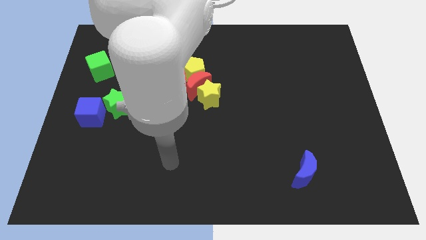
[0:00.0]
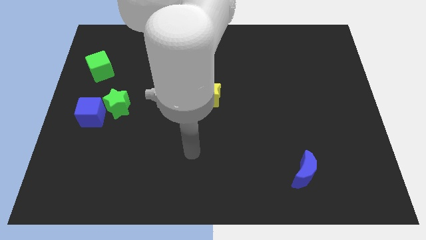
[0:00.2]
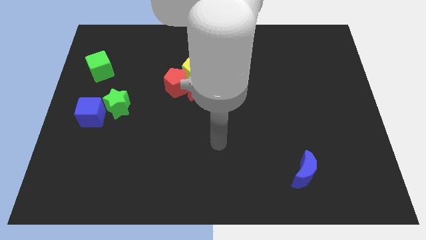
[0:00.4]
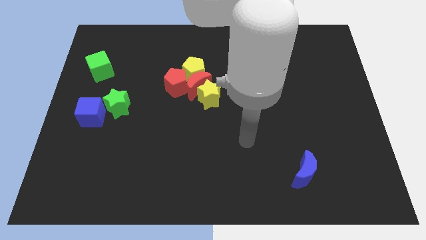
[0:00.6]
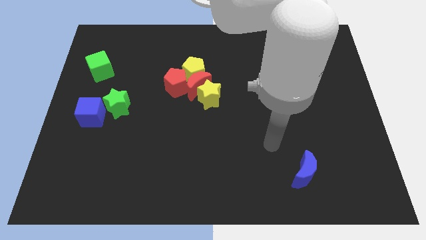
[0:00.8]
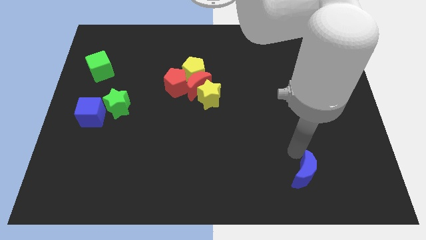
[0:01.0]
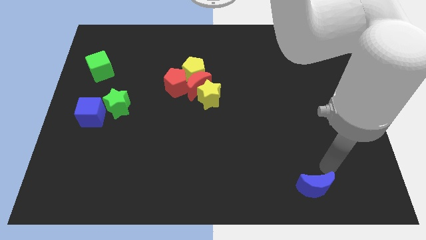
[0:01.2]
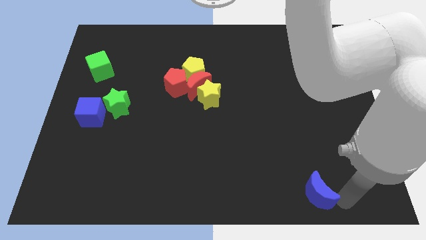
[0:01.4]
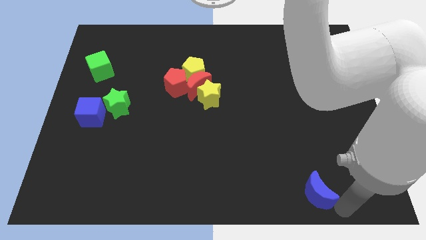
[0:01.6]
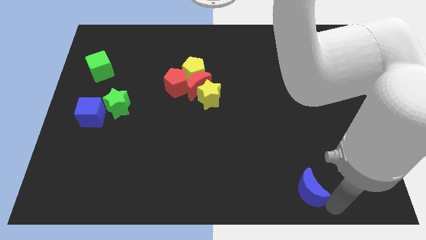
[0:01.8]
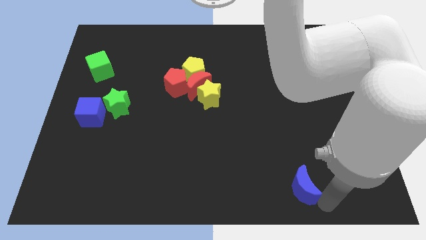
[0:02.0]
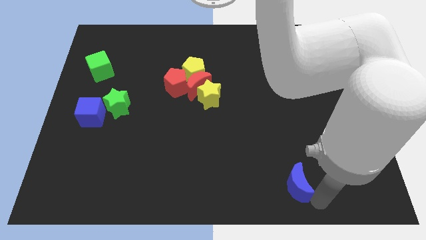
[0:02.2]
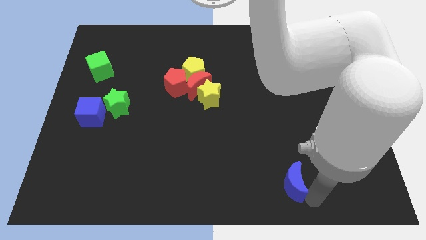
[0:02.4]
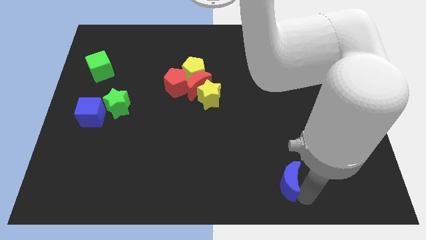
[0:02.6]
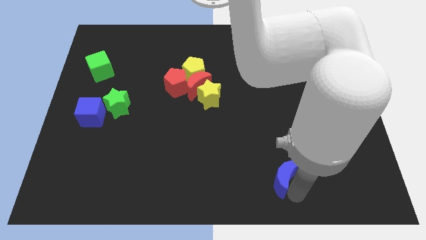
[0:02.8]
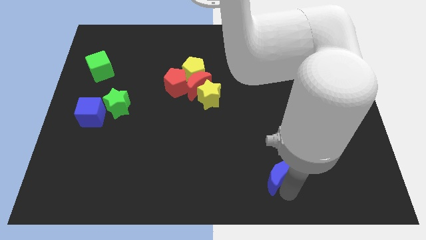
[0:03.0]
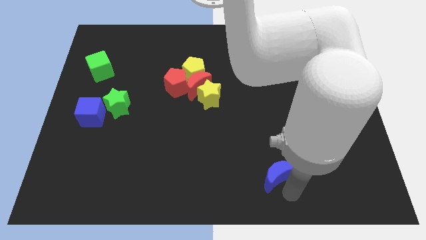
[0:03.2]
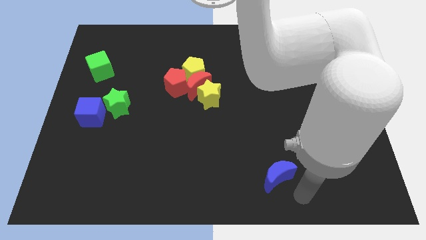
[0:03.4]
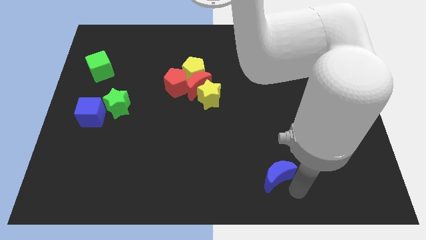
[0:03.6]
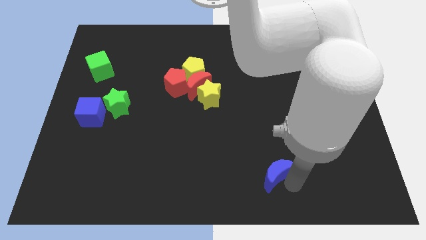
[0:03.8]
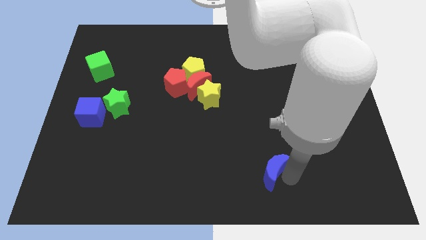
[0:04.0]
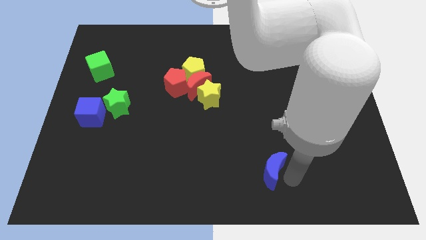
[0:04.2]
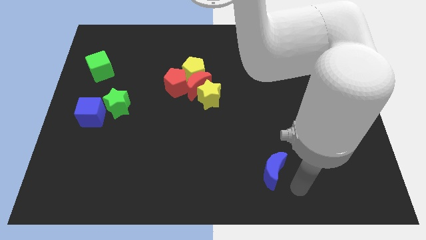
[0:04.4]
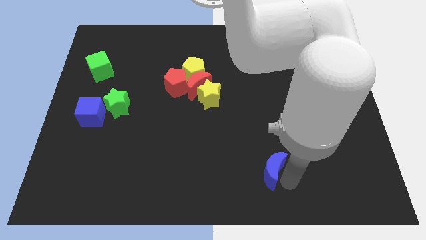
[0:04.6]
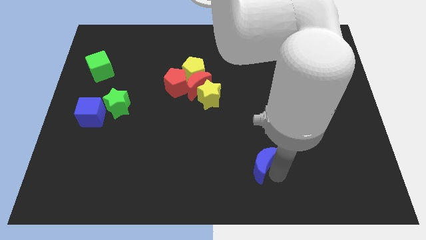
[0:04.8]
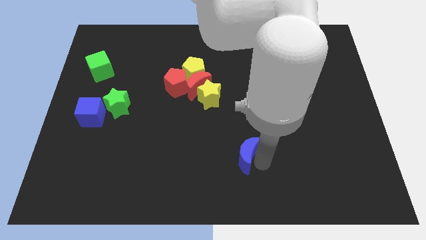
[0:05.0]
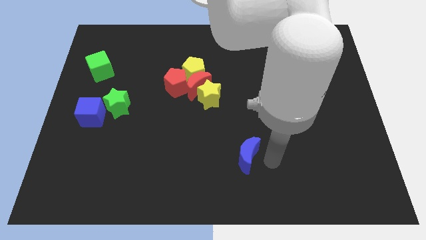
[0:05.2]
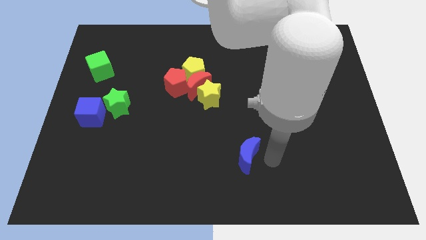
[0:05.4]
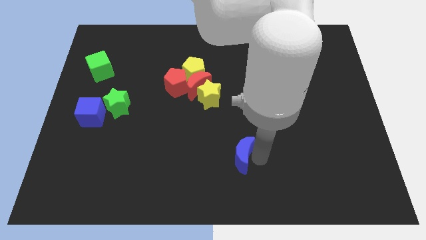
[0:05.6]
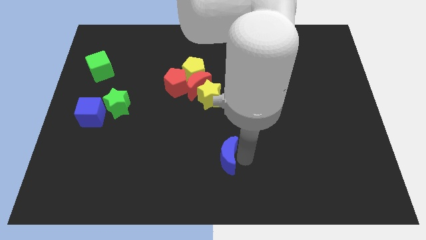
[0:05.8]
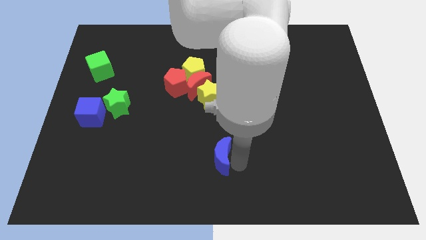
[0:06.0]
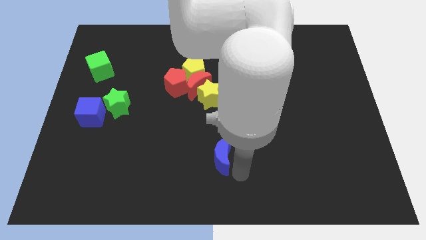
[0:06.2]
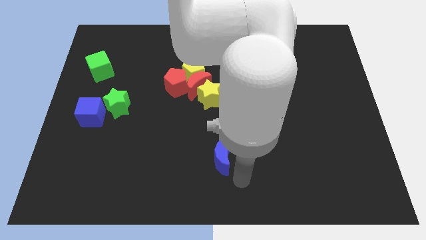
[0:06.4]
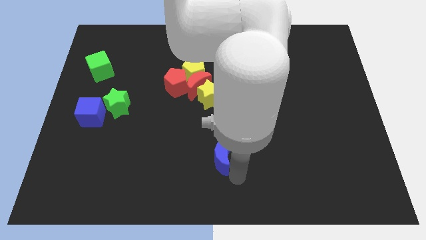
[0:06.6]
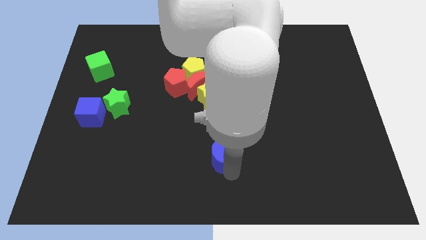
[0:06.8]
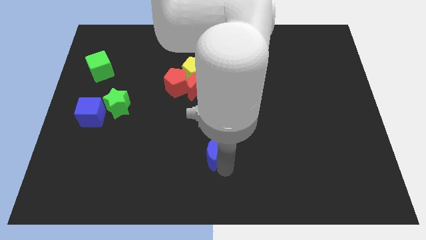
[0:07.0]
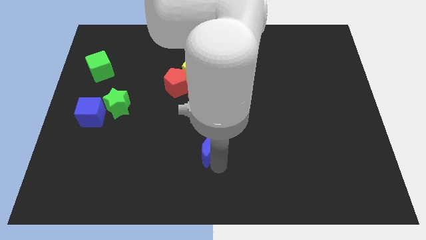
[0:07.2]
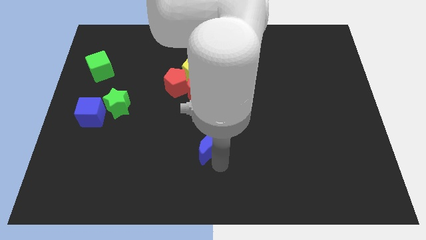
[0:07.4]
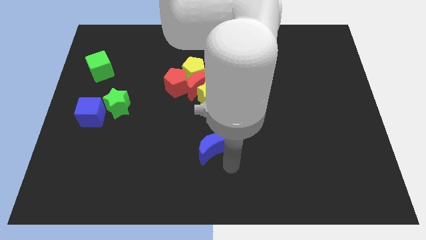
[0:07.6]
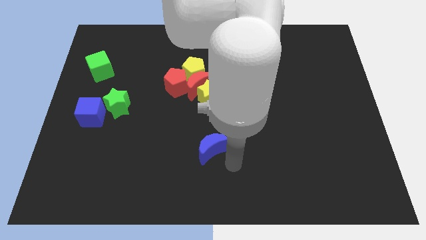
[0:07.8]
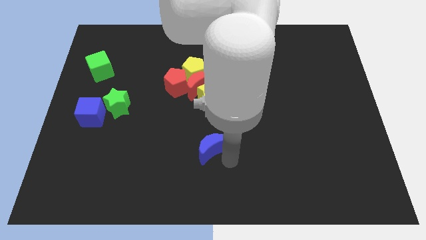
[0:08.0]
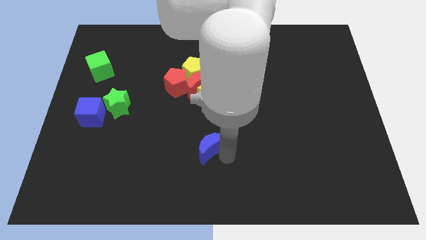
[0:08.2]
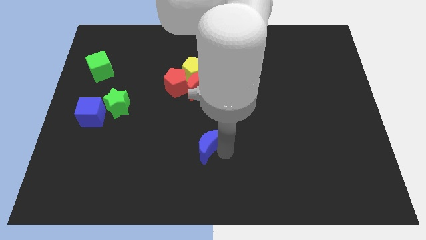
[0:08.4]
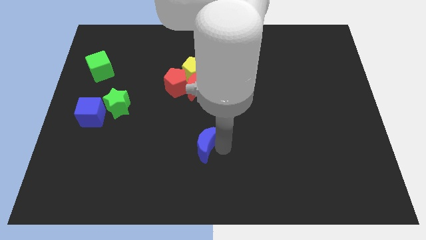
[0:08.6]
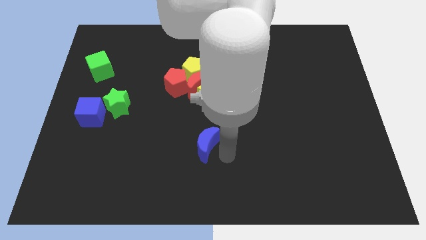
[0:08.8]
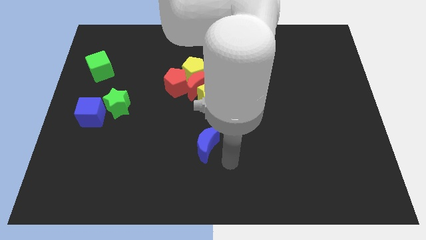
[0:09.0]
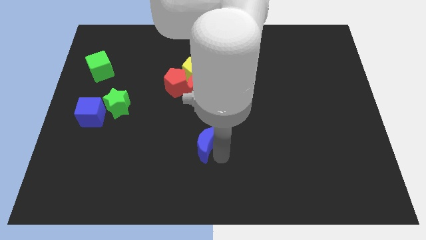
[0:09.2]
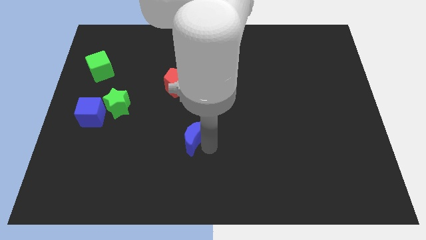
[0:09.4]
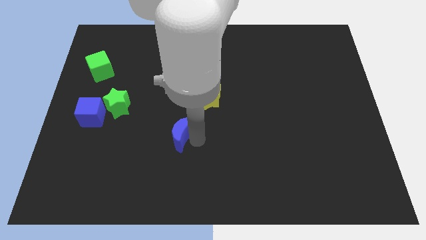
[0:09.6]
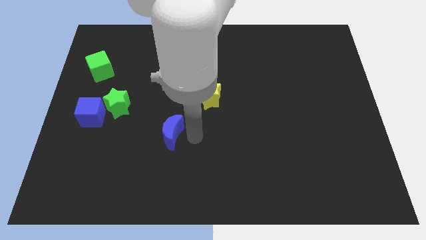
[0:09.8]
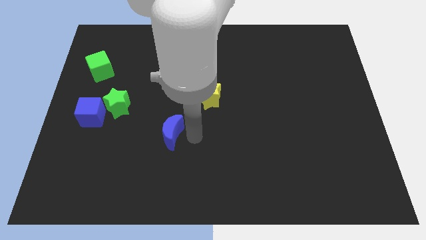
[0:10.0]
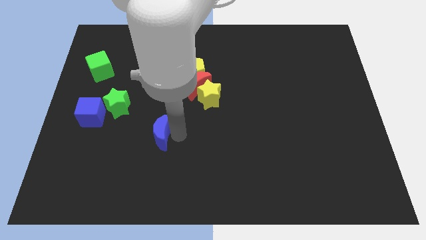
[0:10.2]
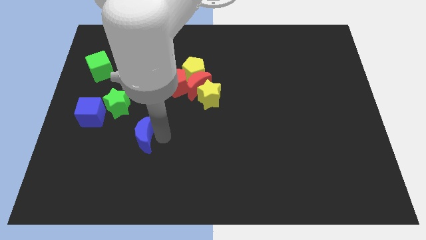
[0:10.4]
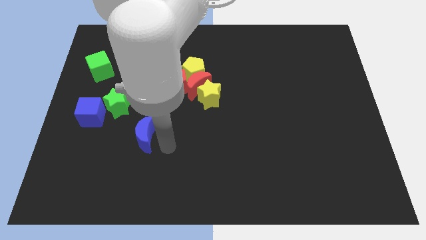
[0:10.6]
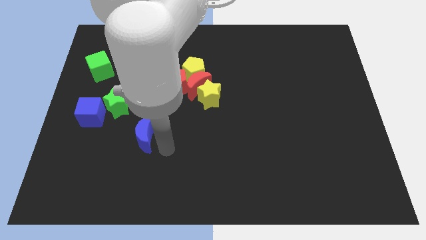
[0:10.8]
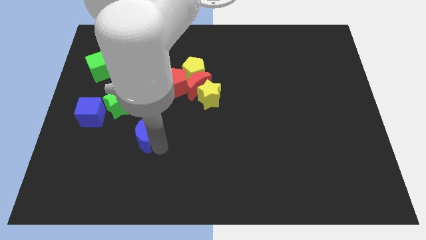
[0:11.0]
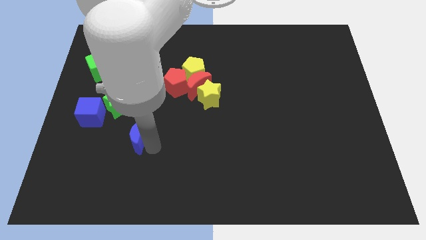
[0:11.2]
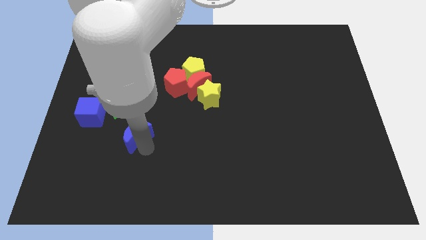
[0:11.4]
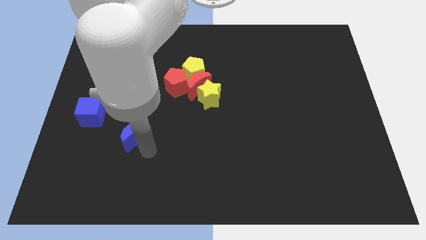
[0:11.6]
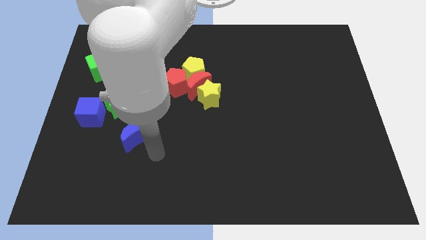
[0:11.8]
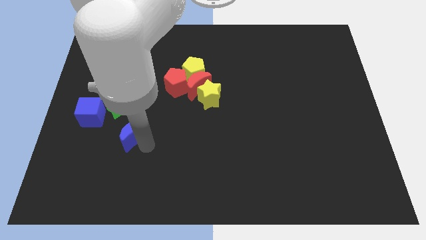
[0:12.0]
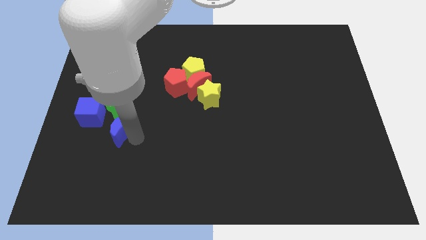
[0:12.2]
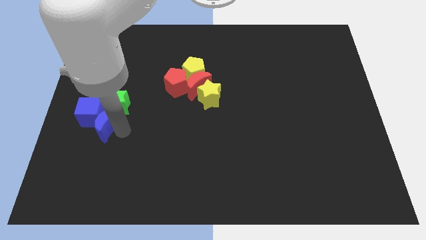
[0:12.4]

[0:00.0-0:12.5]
slide the blue moon close to the blue cube

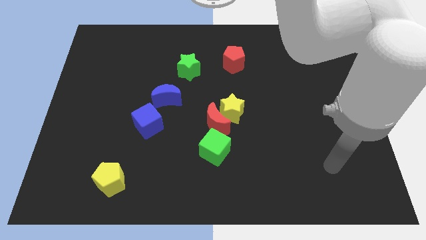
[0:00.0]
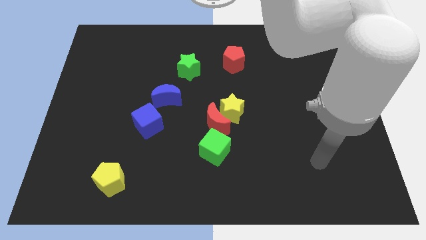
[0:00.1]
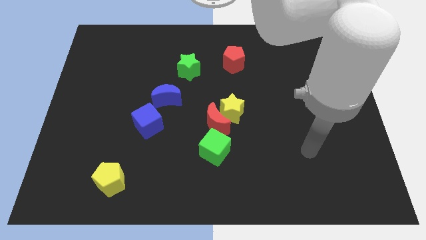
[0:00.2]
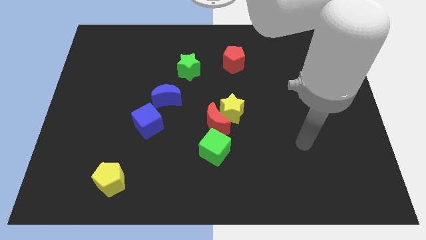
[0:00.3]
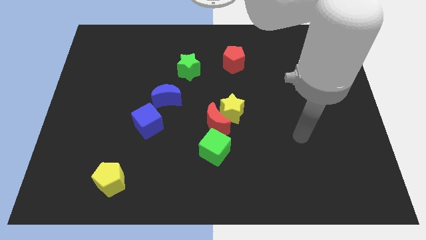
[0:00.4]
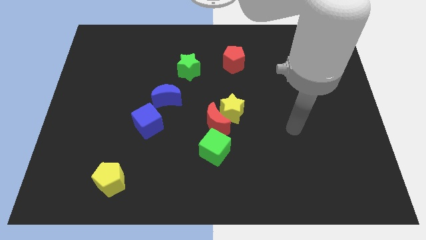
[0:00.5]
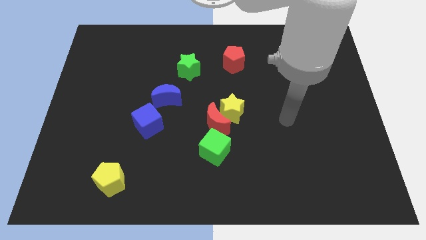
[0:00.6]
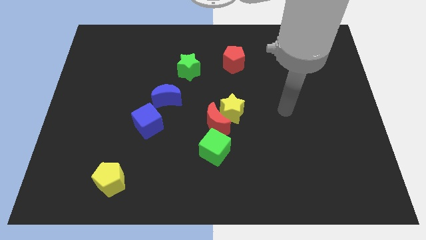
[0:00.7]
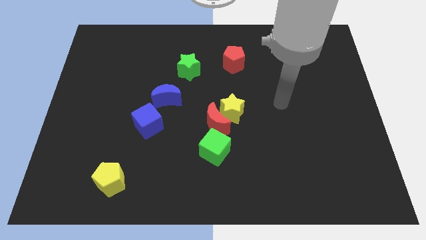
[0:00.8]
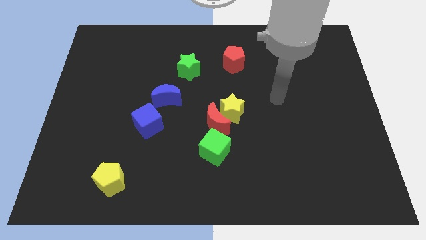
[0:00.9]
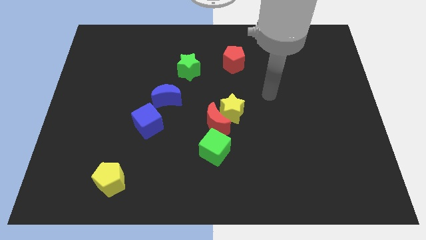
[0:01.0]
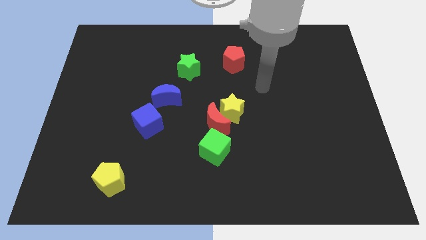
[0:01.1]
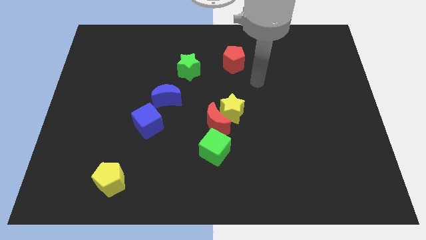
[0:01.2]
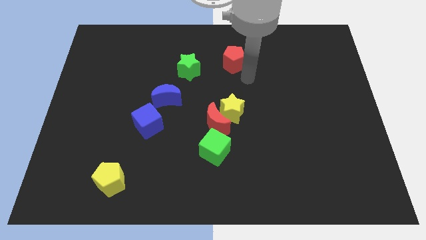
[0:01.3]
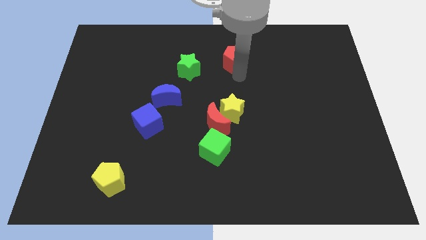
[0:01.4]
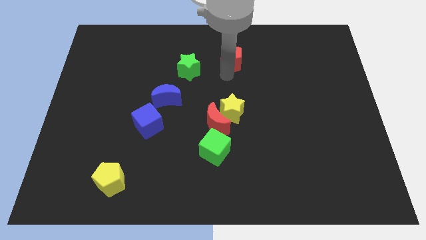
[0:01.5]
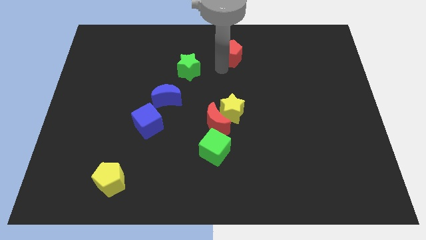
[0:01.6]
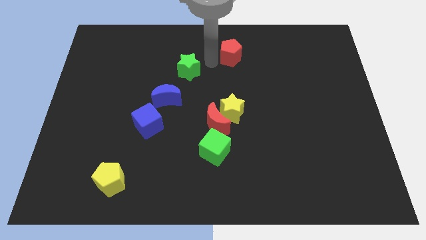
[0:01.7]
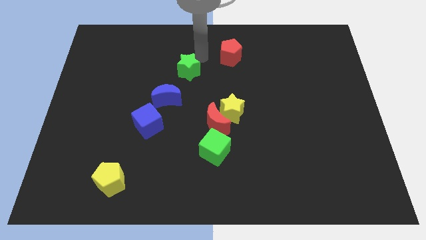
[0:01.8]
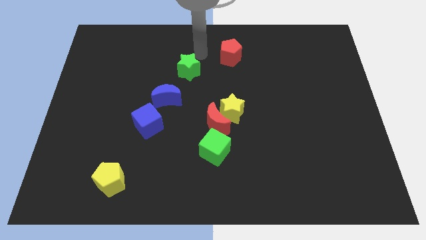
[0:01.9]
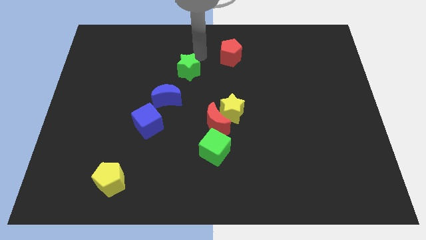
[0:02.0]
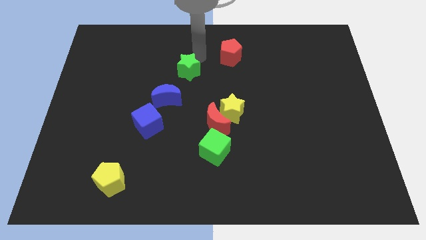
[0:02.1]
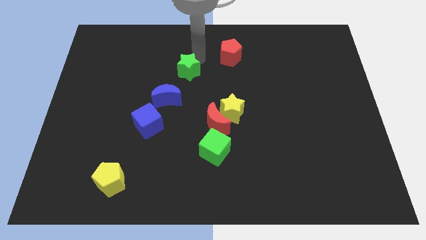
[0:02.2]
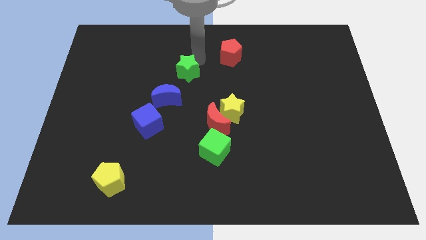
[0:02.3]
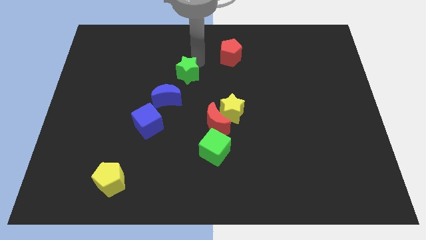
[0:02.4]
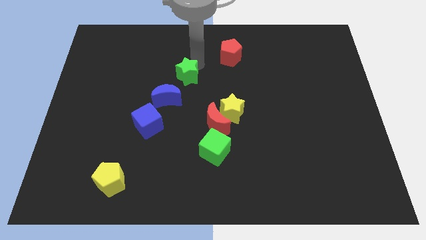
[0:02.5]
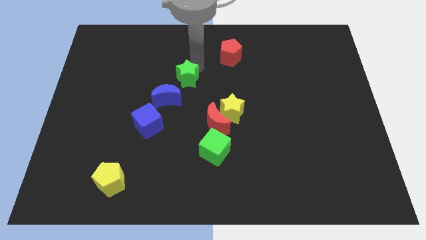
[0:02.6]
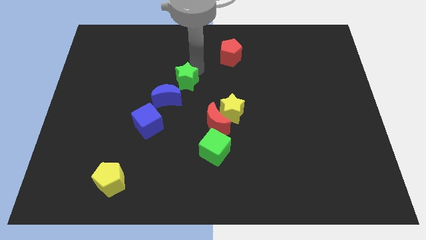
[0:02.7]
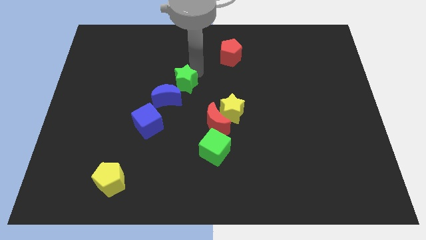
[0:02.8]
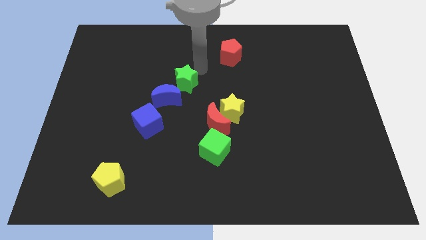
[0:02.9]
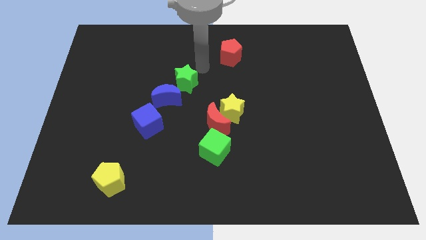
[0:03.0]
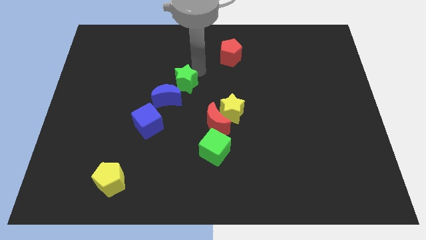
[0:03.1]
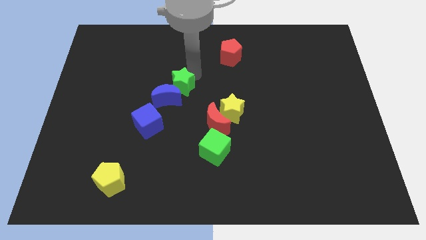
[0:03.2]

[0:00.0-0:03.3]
push the green star to the blue moon
